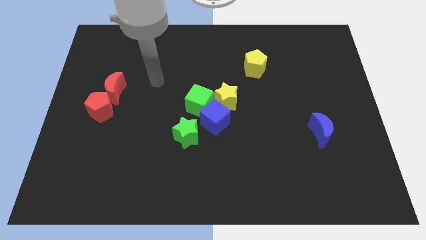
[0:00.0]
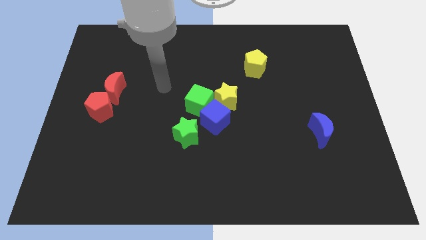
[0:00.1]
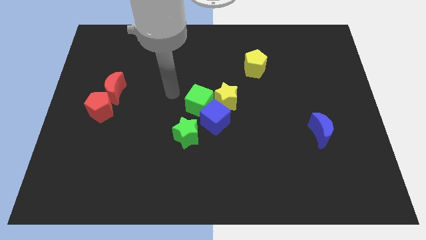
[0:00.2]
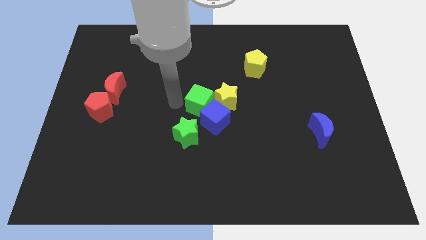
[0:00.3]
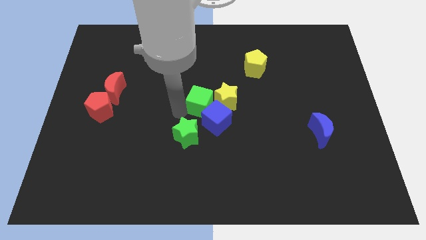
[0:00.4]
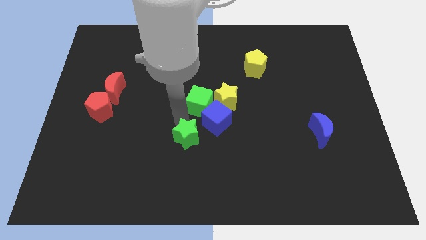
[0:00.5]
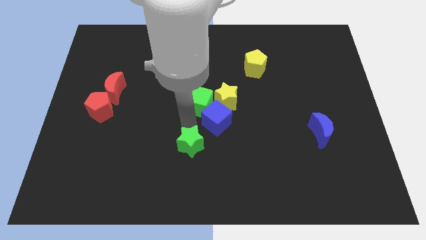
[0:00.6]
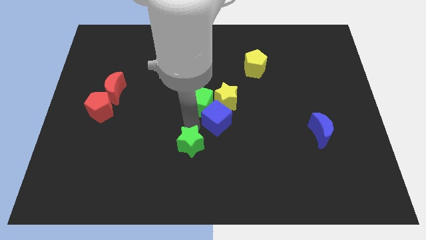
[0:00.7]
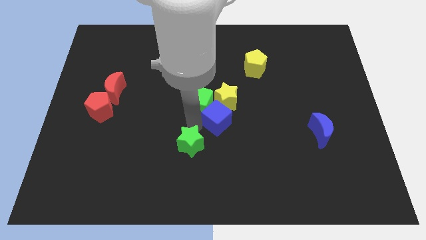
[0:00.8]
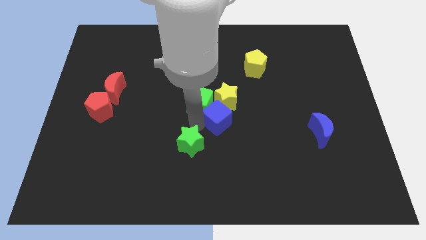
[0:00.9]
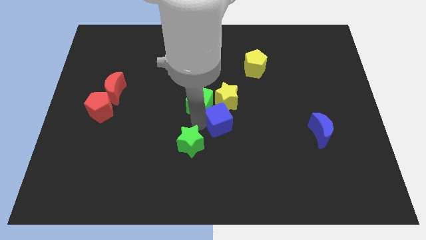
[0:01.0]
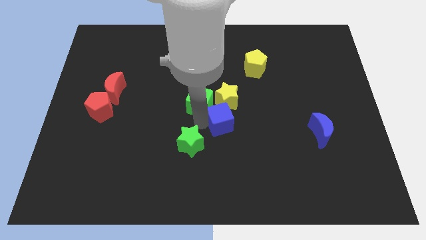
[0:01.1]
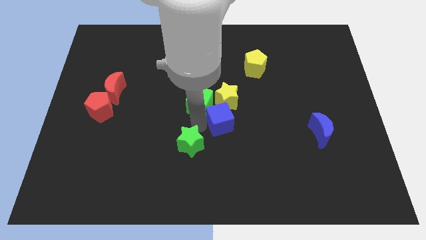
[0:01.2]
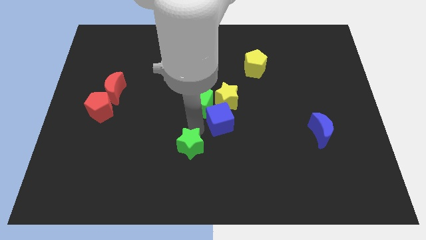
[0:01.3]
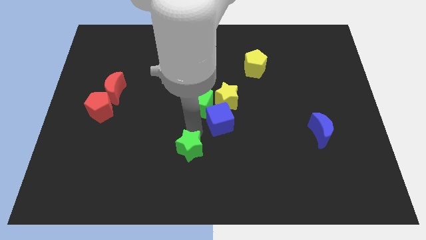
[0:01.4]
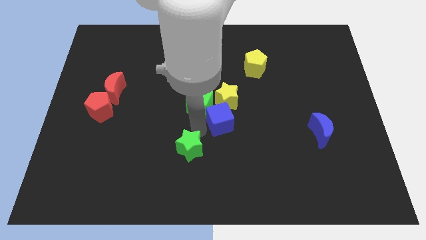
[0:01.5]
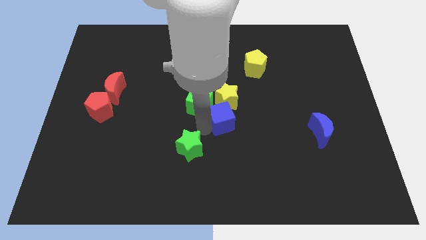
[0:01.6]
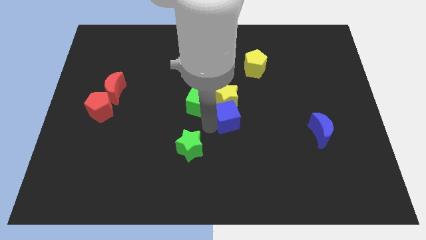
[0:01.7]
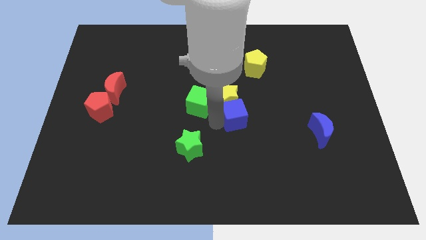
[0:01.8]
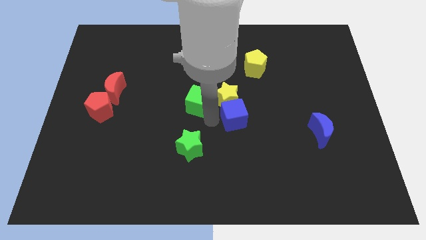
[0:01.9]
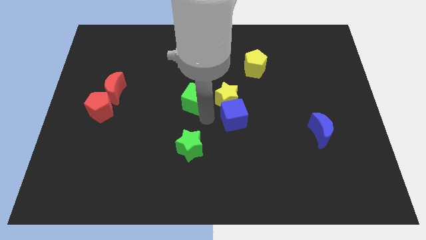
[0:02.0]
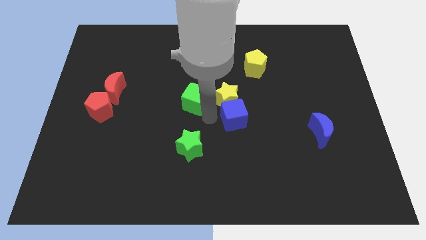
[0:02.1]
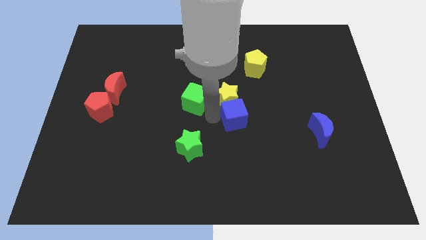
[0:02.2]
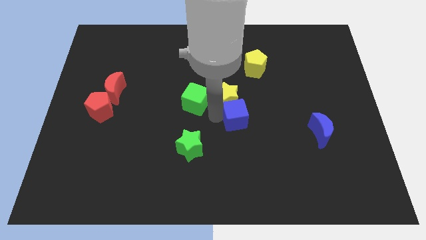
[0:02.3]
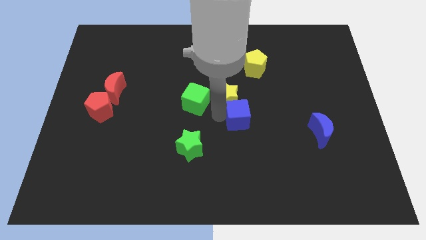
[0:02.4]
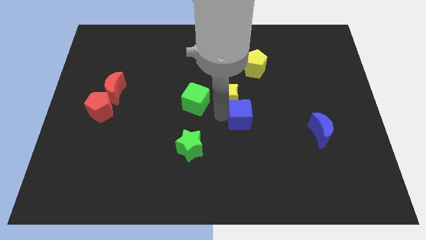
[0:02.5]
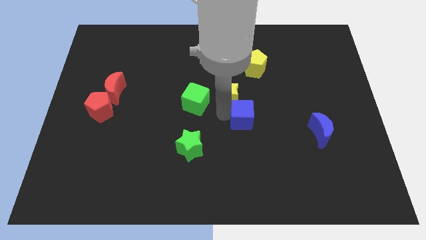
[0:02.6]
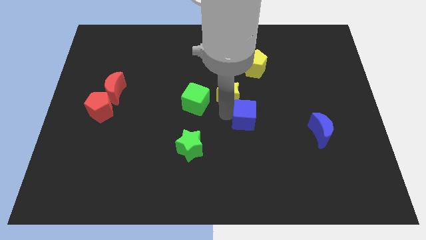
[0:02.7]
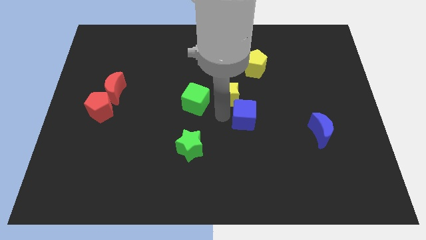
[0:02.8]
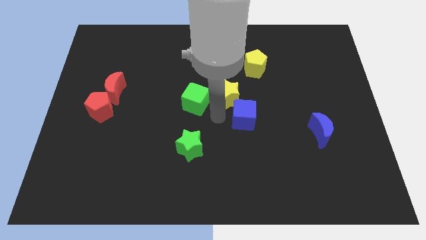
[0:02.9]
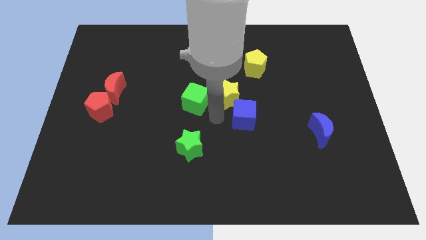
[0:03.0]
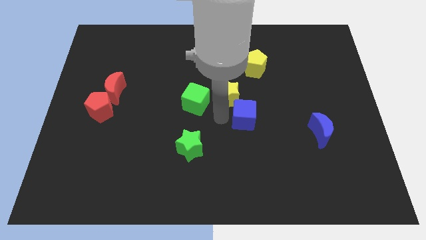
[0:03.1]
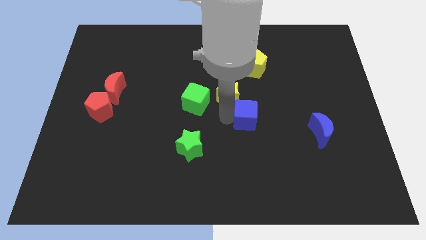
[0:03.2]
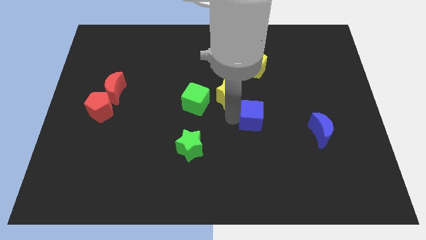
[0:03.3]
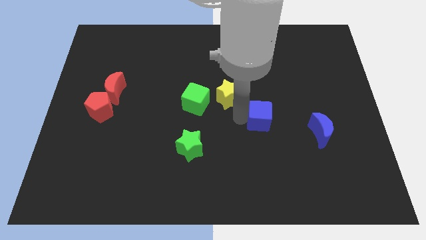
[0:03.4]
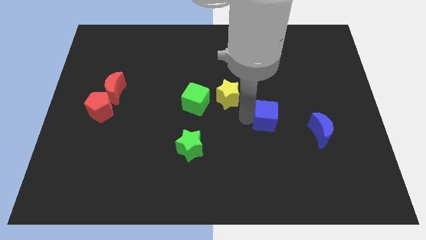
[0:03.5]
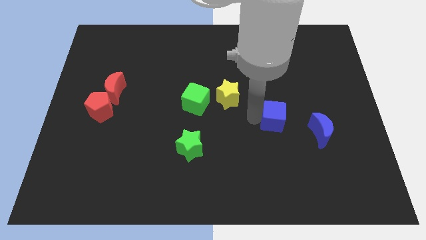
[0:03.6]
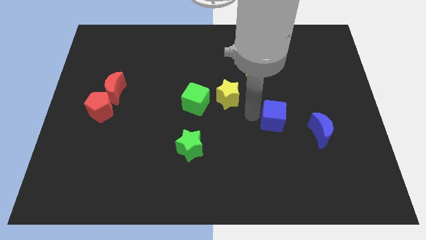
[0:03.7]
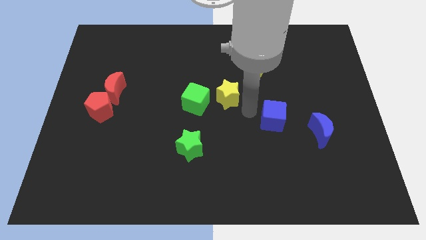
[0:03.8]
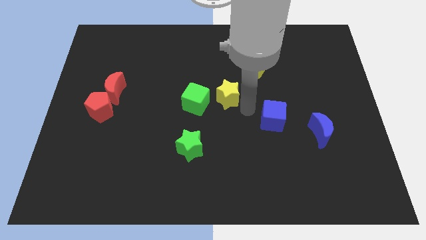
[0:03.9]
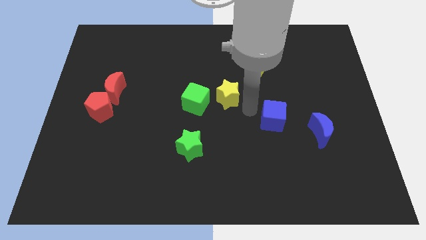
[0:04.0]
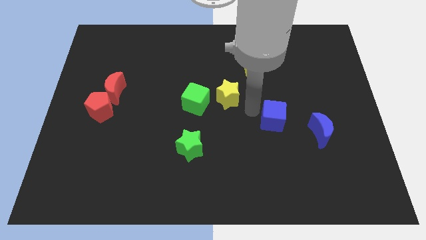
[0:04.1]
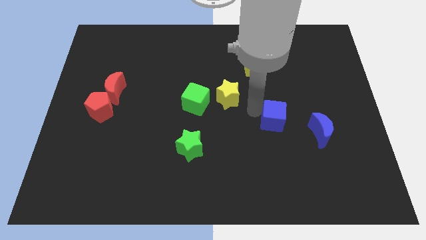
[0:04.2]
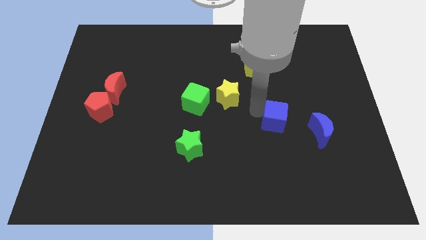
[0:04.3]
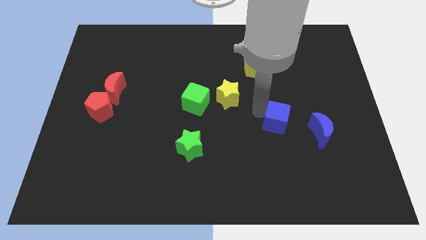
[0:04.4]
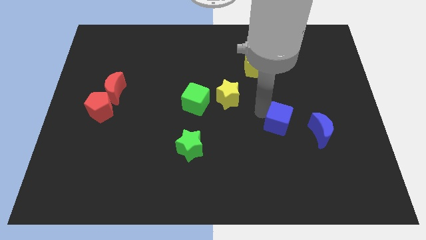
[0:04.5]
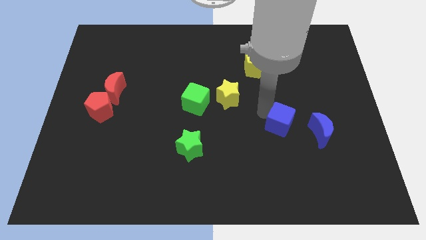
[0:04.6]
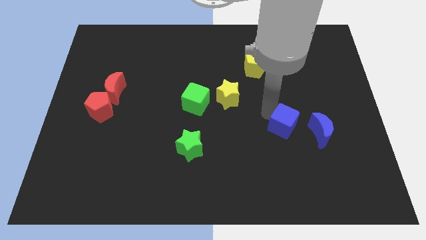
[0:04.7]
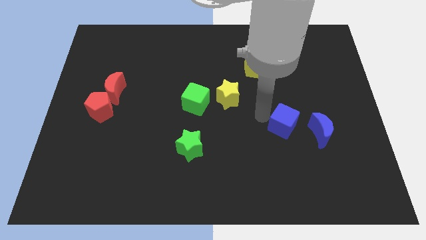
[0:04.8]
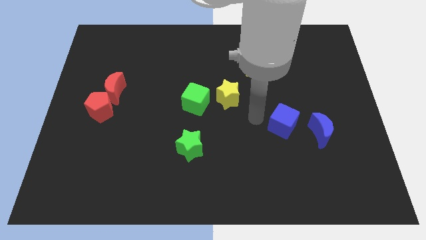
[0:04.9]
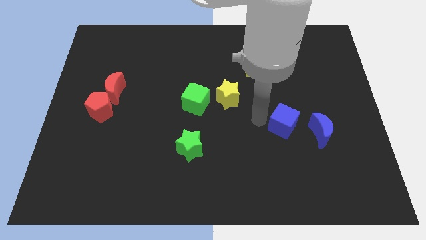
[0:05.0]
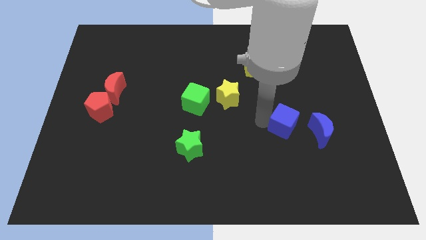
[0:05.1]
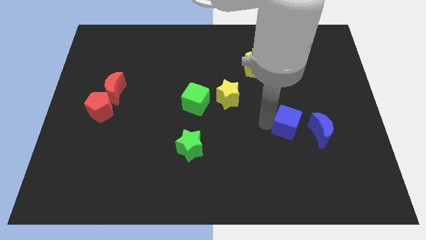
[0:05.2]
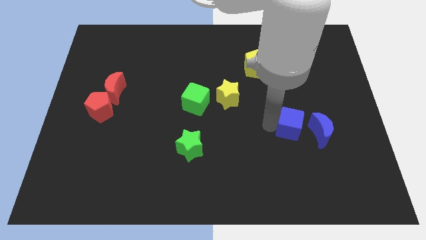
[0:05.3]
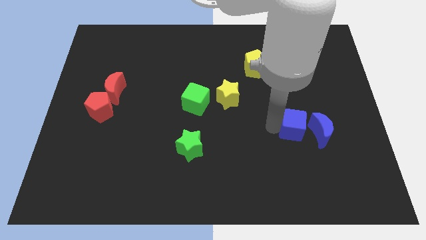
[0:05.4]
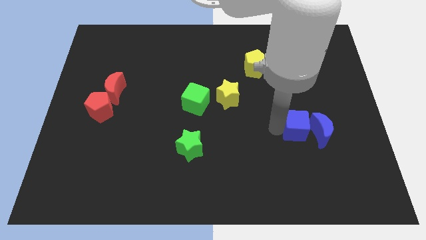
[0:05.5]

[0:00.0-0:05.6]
put the blue cube to the blue moon

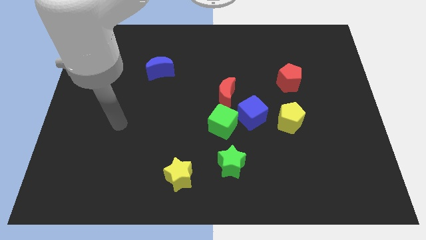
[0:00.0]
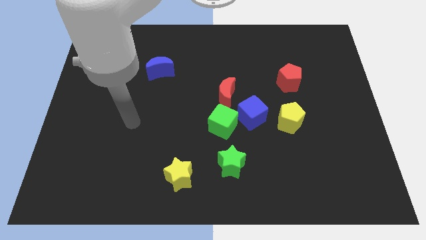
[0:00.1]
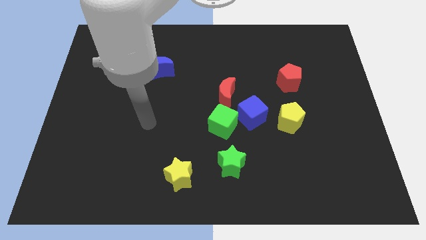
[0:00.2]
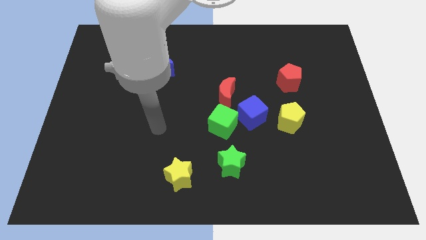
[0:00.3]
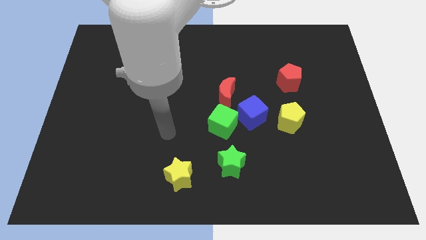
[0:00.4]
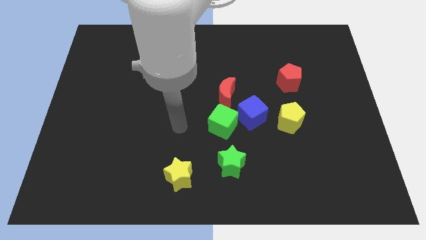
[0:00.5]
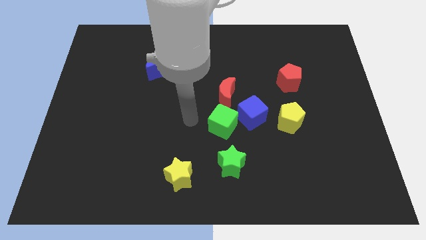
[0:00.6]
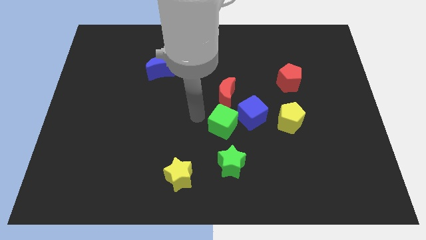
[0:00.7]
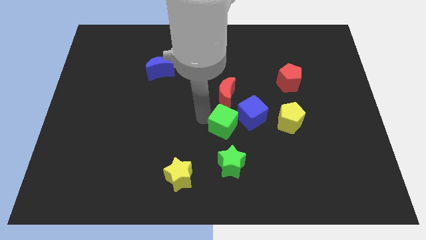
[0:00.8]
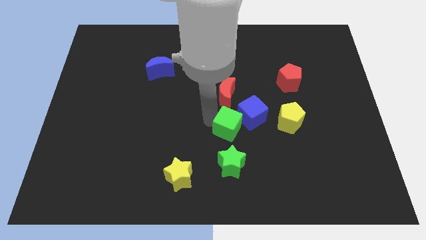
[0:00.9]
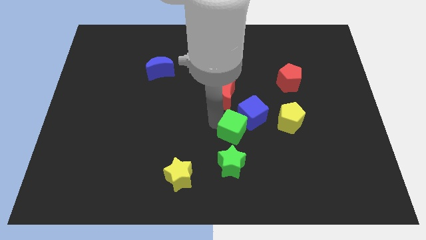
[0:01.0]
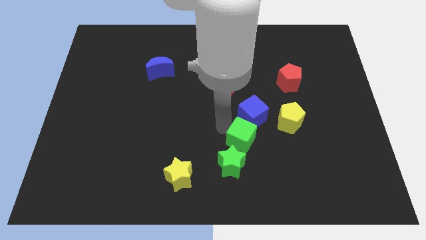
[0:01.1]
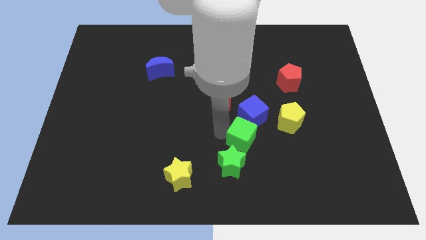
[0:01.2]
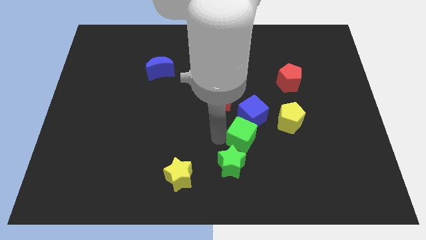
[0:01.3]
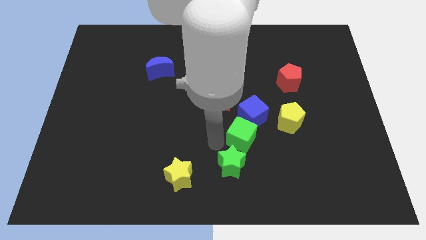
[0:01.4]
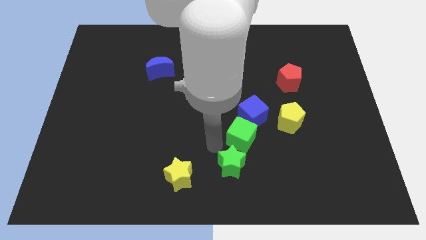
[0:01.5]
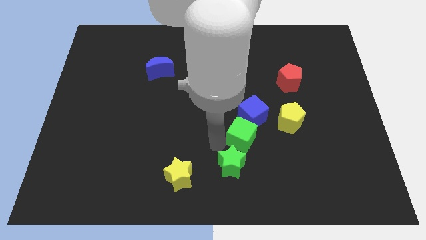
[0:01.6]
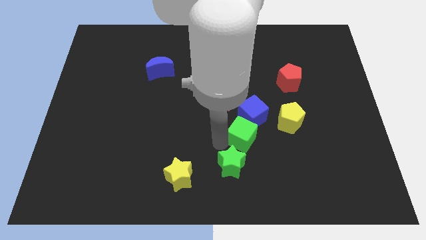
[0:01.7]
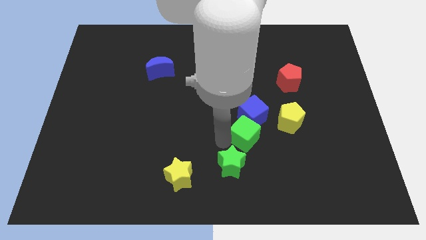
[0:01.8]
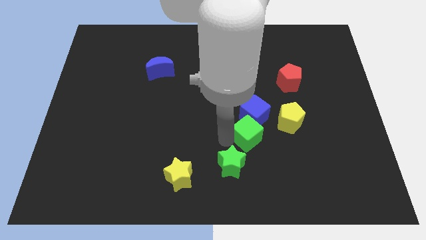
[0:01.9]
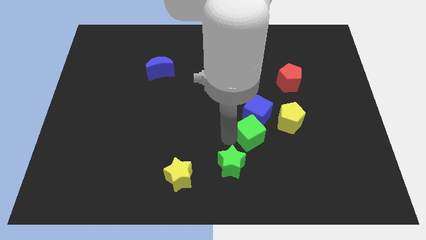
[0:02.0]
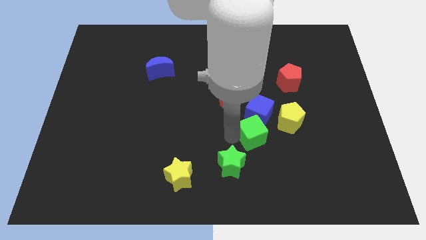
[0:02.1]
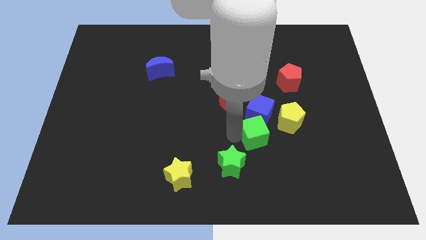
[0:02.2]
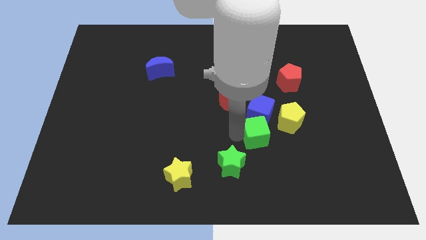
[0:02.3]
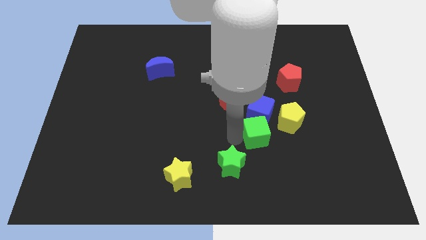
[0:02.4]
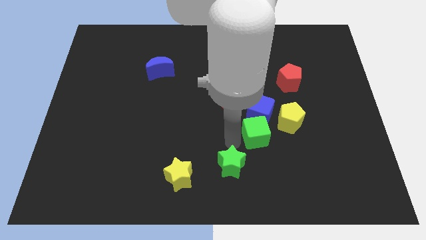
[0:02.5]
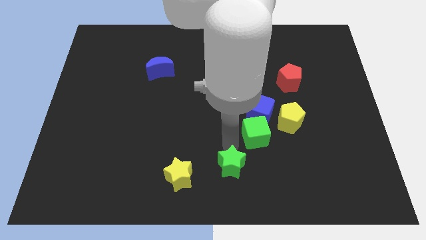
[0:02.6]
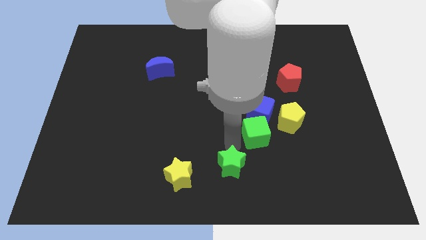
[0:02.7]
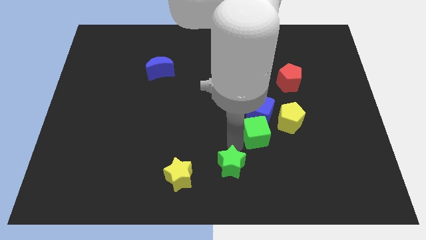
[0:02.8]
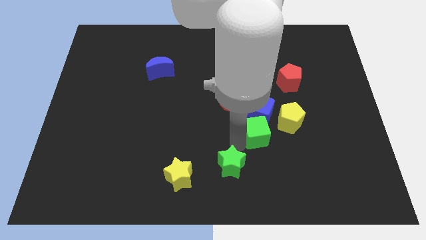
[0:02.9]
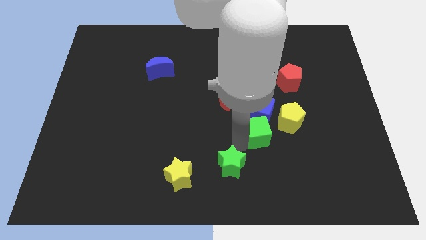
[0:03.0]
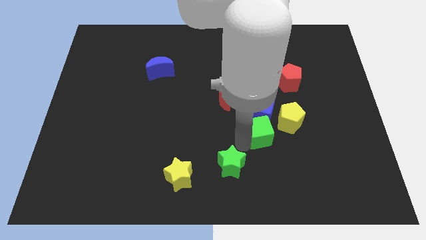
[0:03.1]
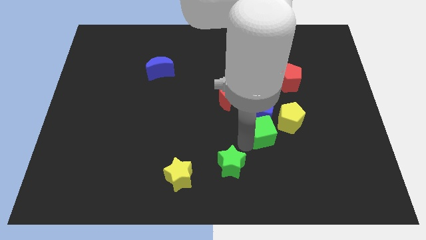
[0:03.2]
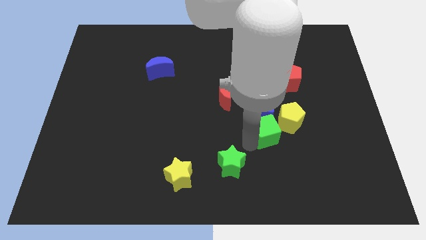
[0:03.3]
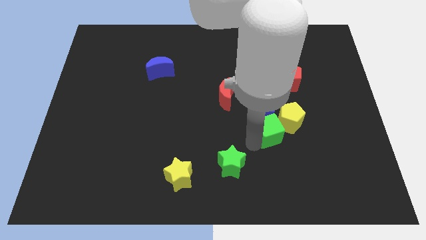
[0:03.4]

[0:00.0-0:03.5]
move the green cube next to the yellow pentagon
